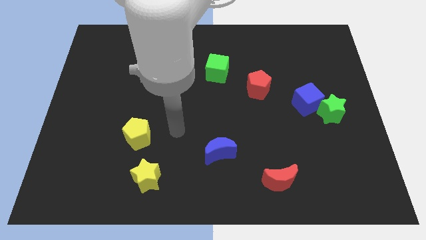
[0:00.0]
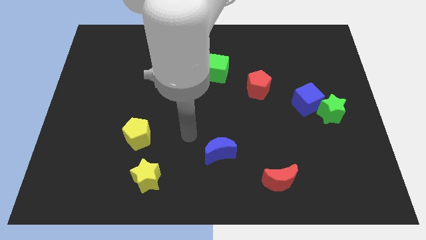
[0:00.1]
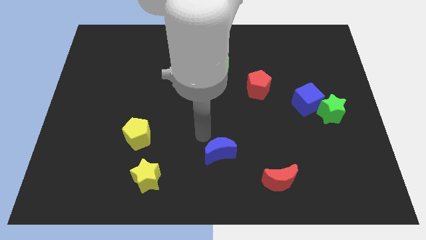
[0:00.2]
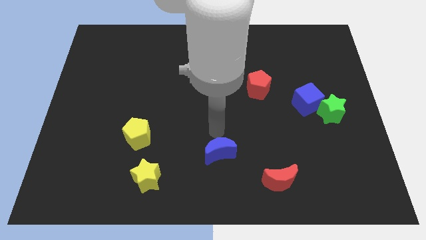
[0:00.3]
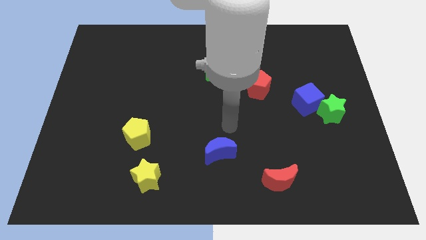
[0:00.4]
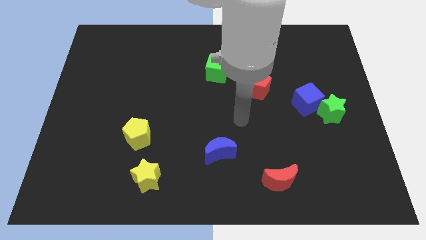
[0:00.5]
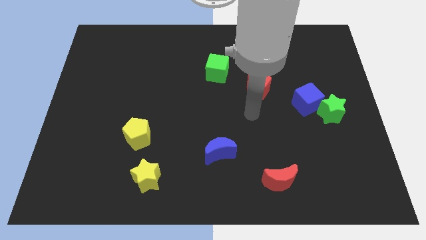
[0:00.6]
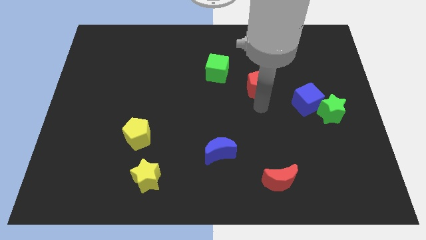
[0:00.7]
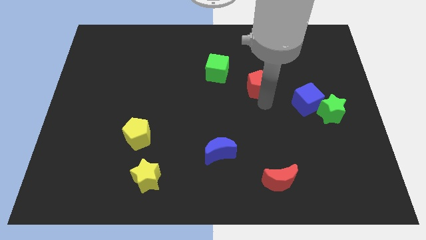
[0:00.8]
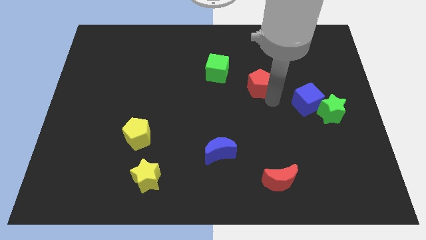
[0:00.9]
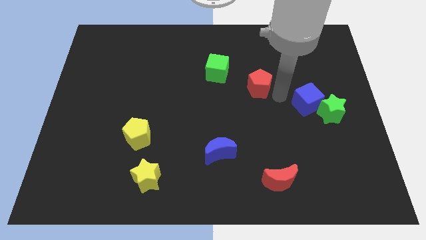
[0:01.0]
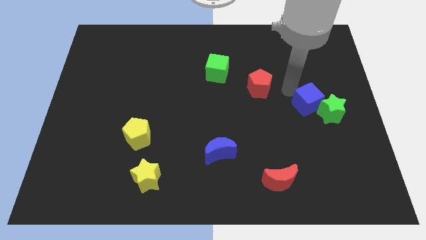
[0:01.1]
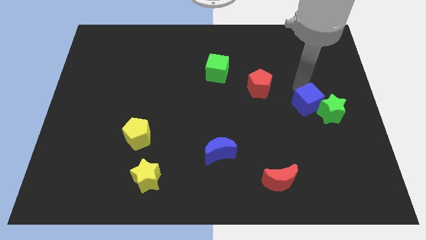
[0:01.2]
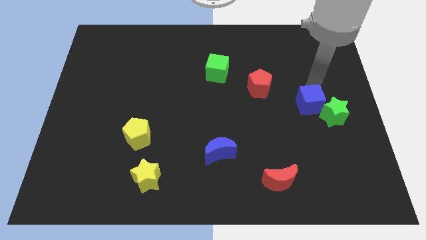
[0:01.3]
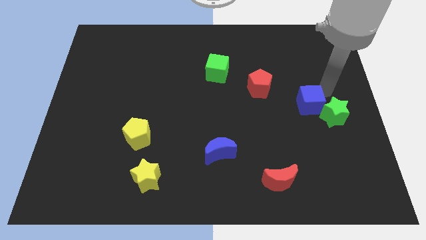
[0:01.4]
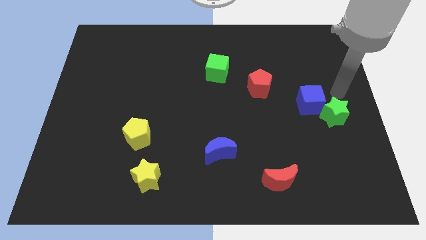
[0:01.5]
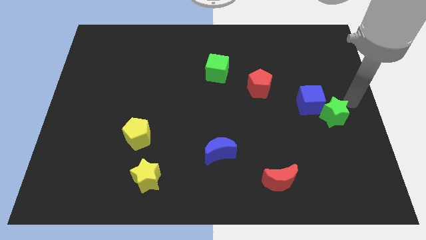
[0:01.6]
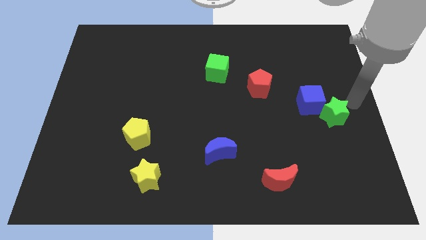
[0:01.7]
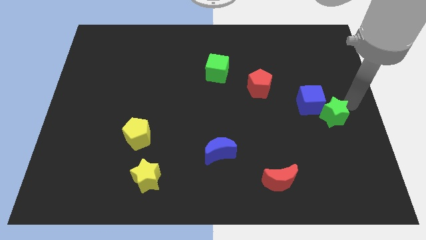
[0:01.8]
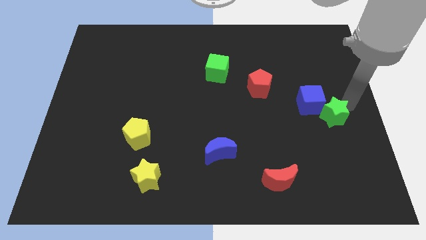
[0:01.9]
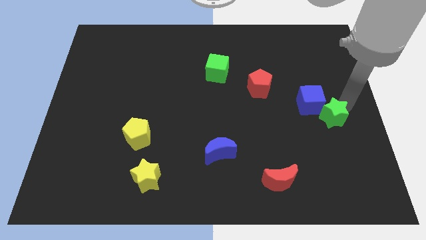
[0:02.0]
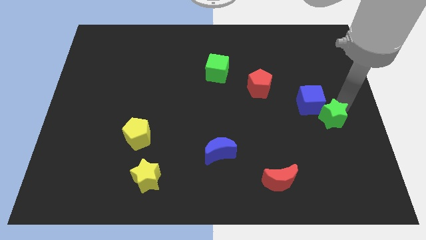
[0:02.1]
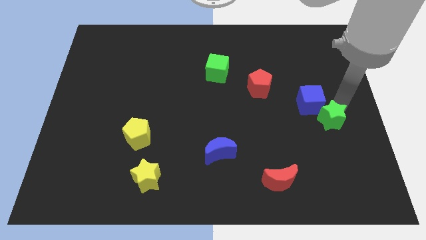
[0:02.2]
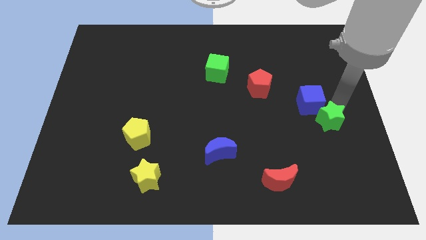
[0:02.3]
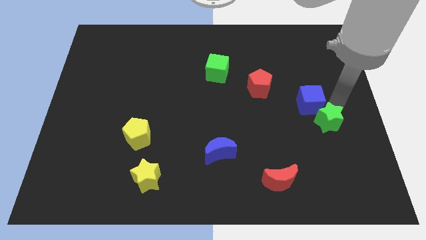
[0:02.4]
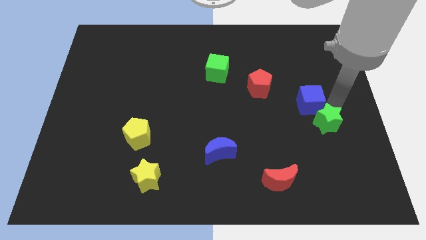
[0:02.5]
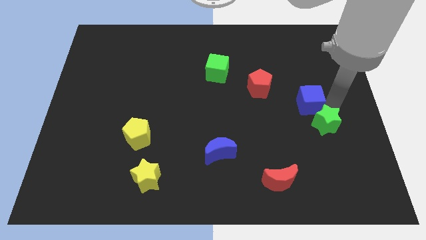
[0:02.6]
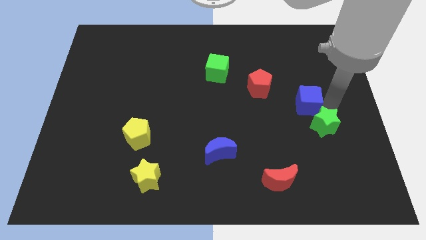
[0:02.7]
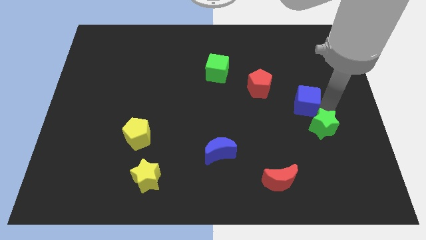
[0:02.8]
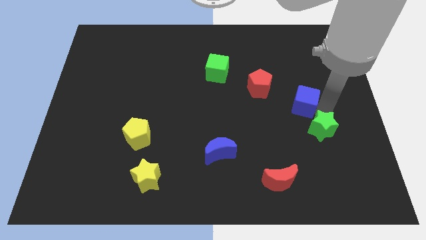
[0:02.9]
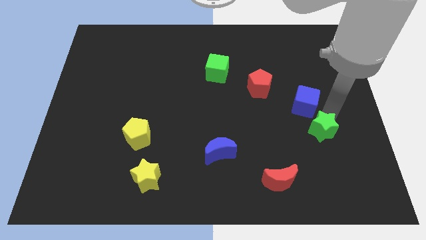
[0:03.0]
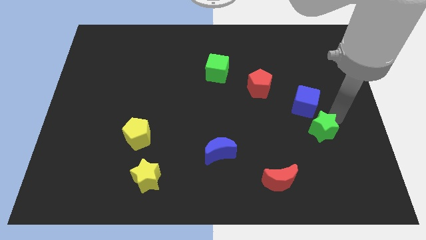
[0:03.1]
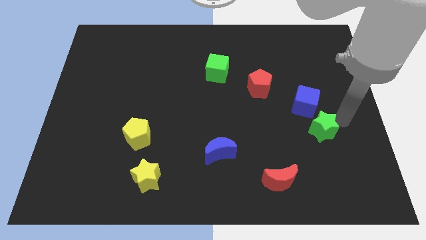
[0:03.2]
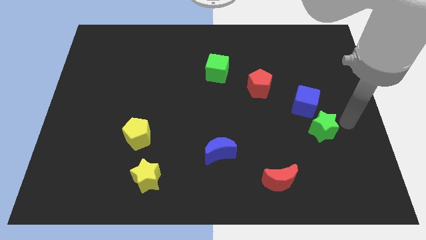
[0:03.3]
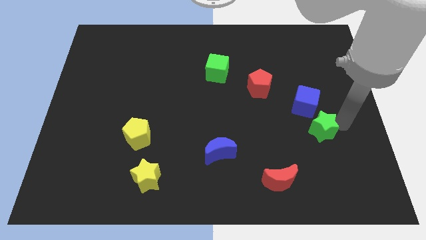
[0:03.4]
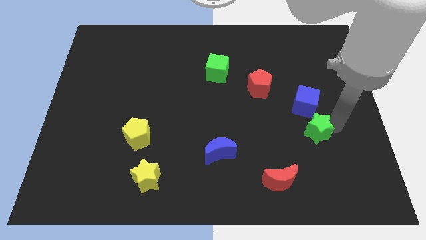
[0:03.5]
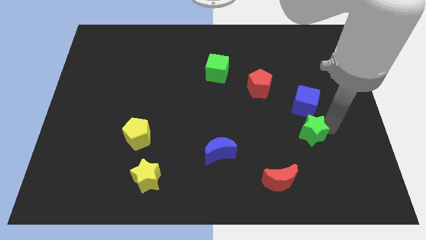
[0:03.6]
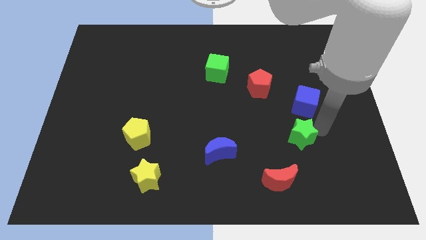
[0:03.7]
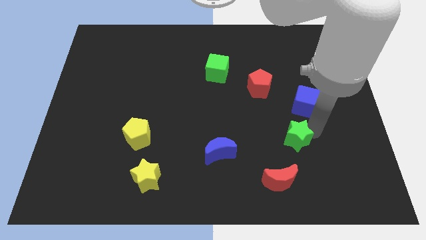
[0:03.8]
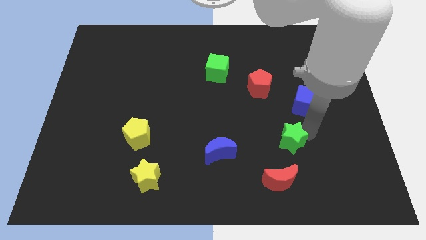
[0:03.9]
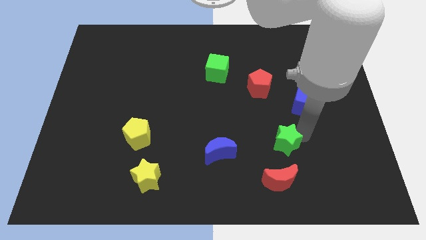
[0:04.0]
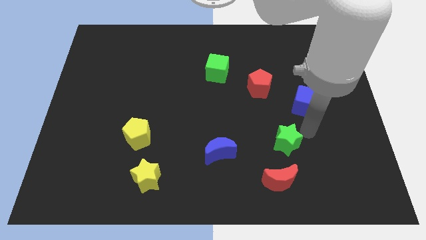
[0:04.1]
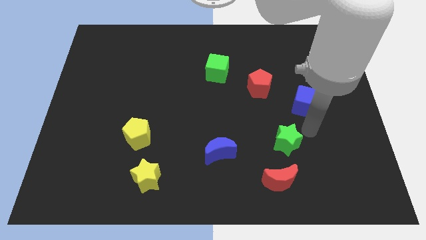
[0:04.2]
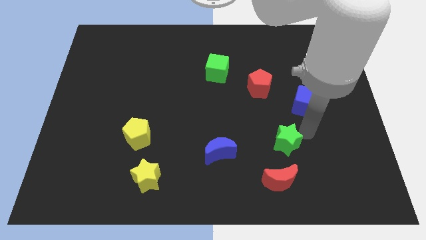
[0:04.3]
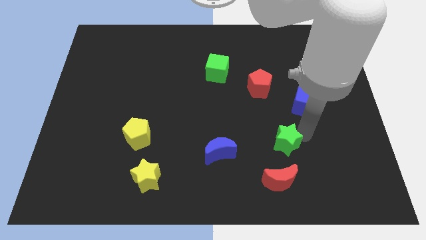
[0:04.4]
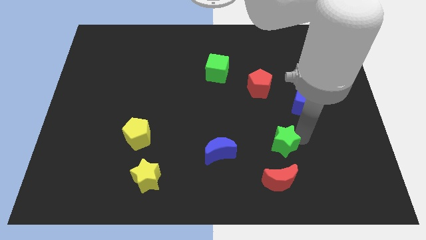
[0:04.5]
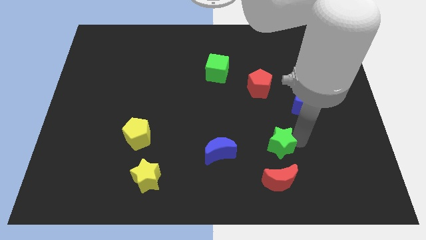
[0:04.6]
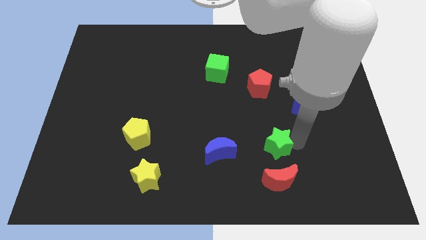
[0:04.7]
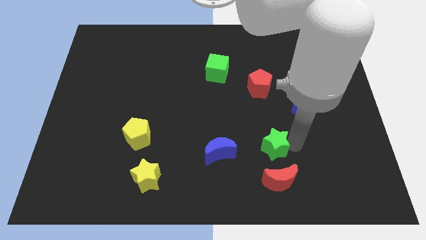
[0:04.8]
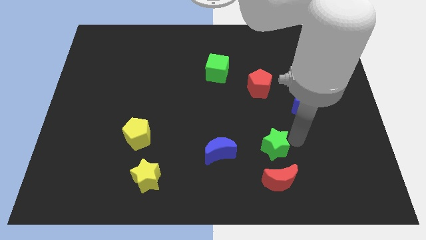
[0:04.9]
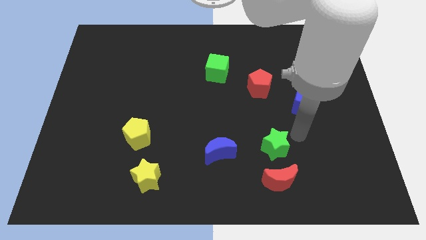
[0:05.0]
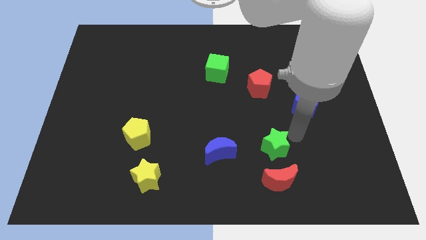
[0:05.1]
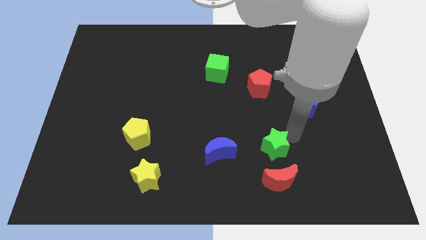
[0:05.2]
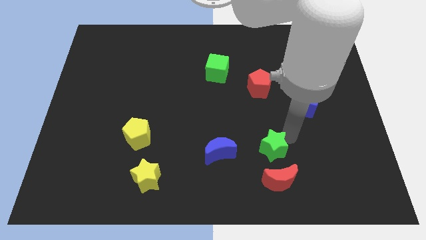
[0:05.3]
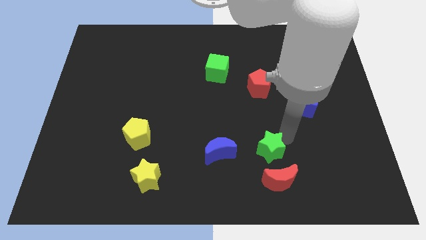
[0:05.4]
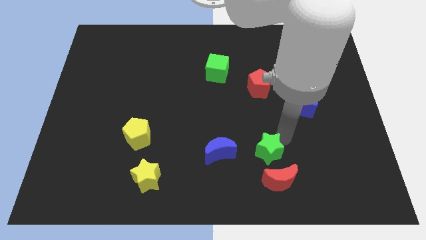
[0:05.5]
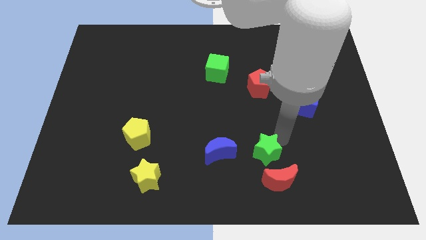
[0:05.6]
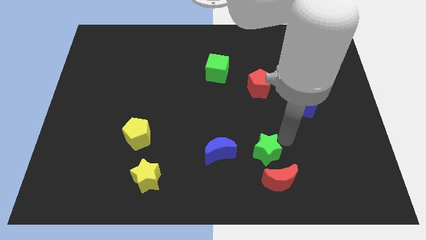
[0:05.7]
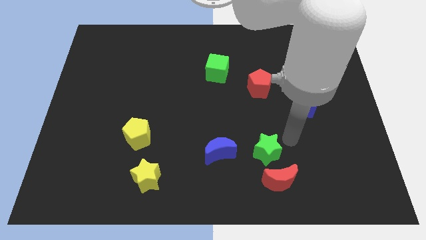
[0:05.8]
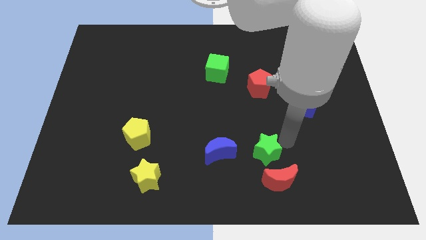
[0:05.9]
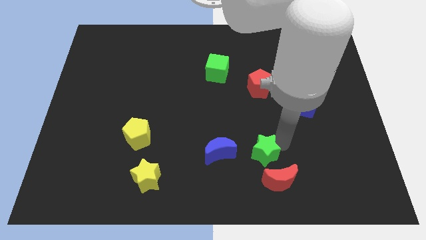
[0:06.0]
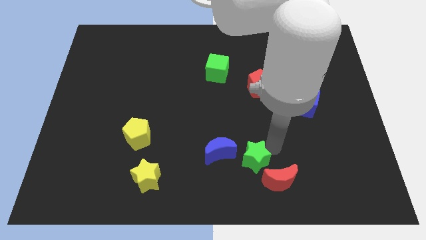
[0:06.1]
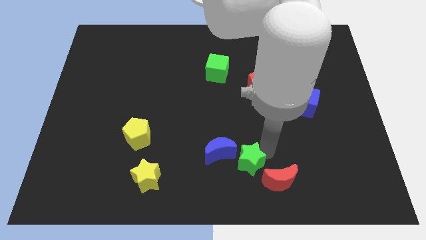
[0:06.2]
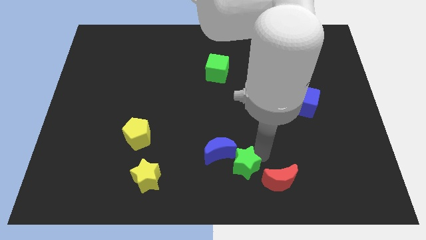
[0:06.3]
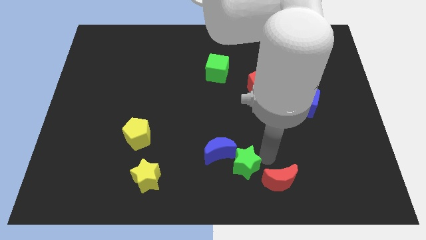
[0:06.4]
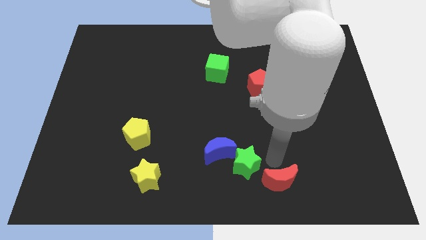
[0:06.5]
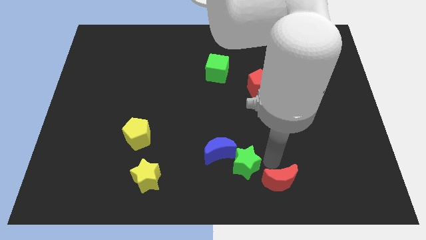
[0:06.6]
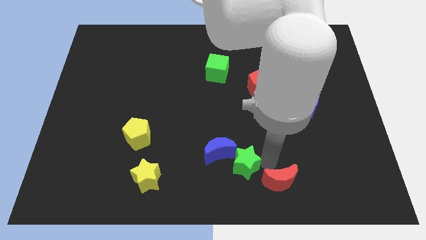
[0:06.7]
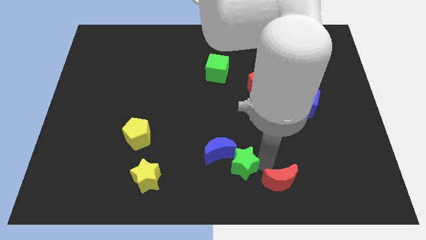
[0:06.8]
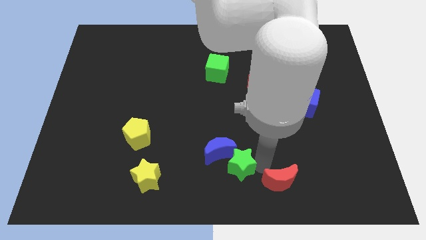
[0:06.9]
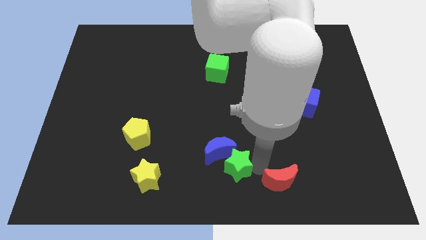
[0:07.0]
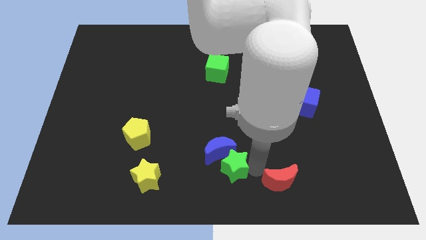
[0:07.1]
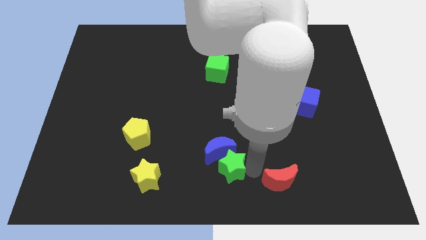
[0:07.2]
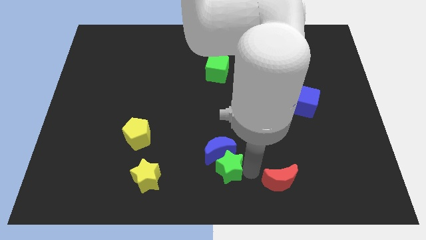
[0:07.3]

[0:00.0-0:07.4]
put the green star diagonally down and to the left of the blue moon
